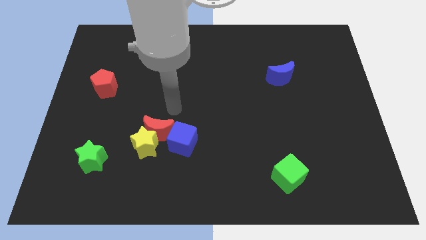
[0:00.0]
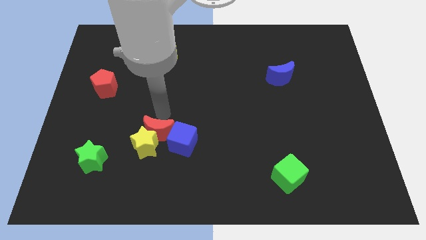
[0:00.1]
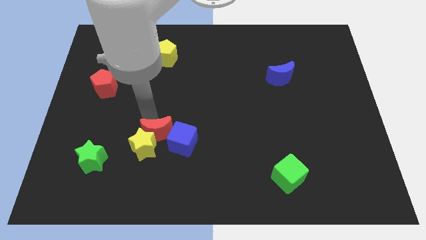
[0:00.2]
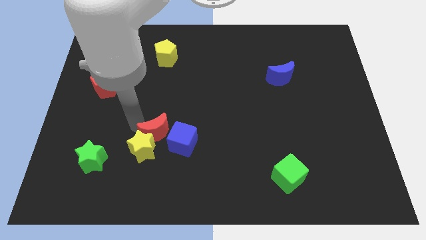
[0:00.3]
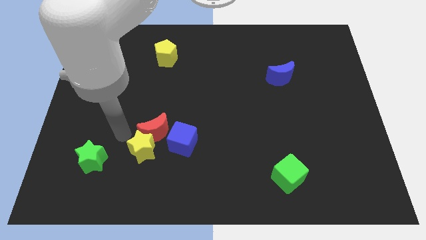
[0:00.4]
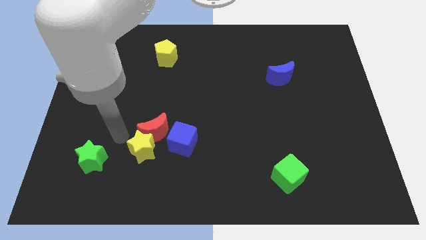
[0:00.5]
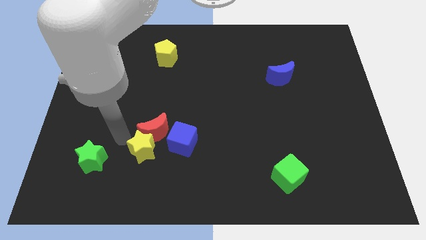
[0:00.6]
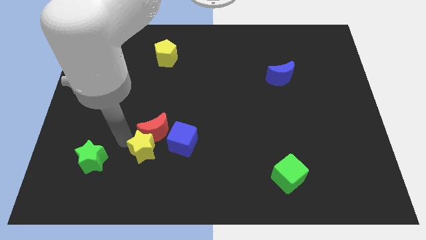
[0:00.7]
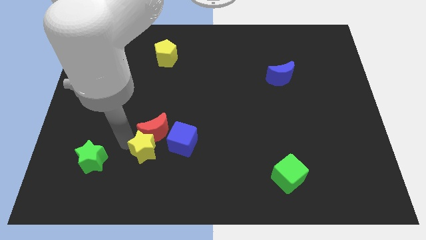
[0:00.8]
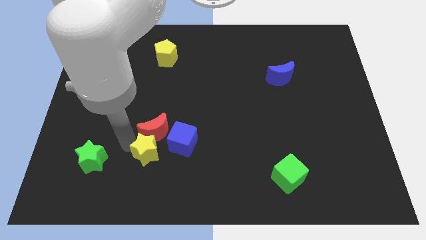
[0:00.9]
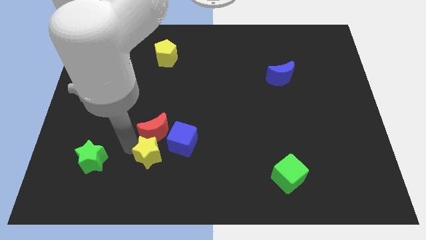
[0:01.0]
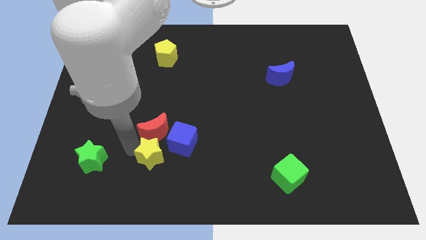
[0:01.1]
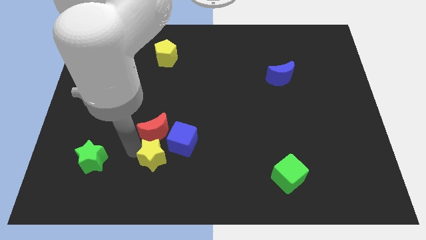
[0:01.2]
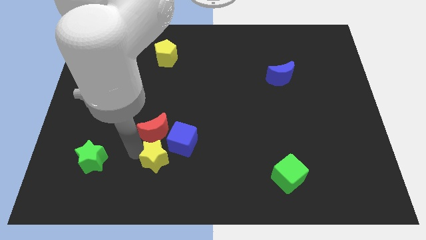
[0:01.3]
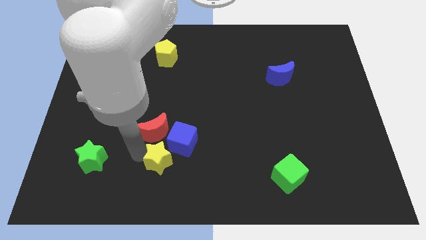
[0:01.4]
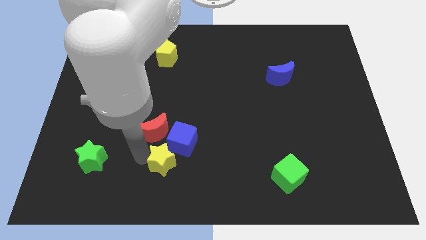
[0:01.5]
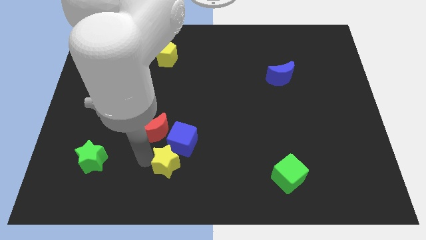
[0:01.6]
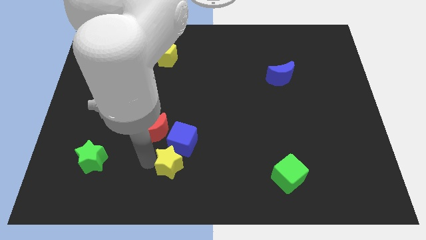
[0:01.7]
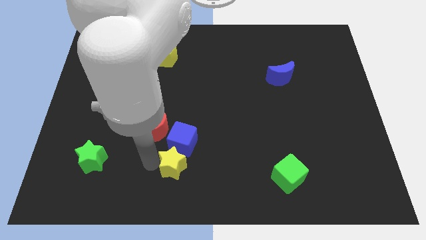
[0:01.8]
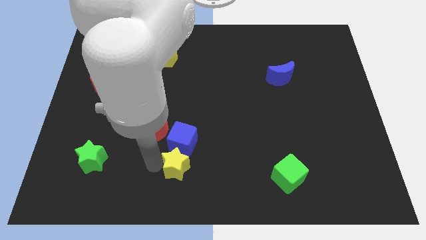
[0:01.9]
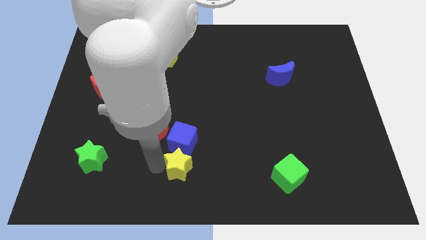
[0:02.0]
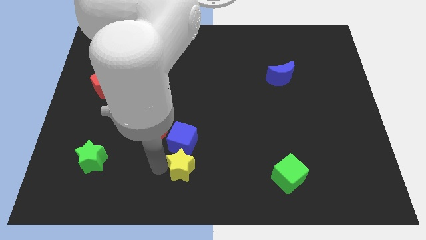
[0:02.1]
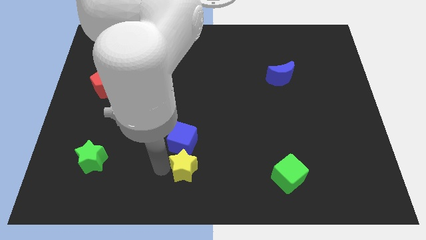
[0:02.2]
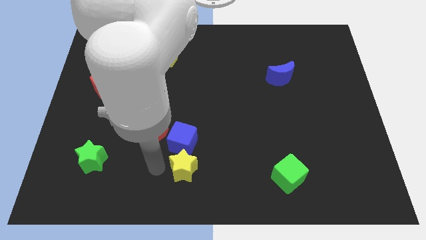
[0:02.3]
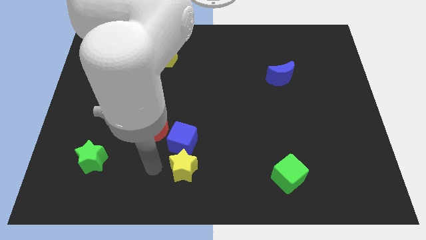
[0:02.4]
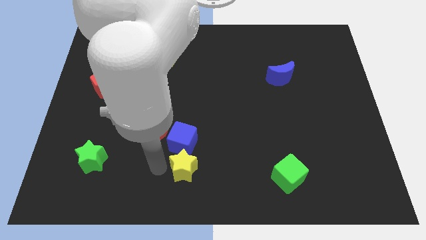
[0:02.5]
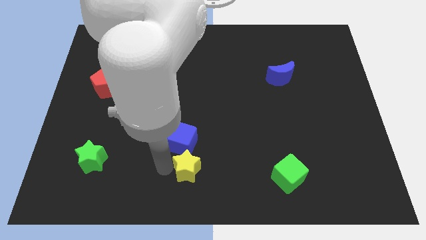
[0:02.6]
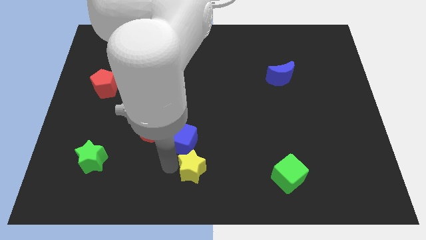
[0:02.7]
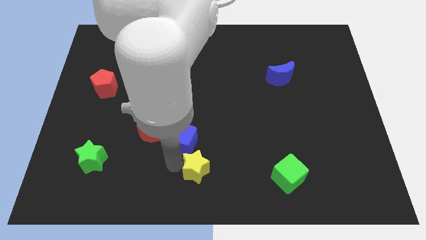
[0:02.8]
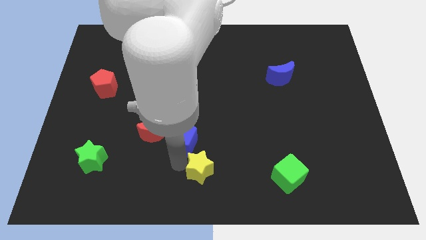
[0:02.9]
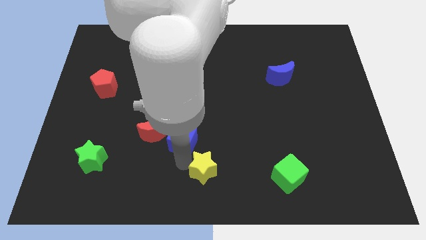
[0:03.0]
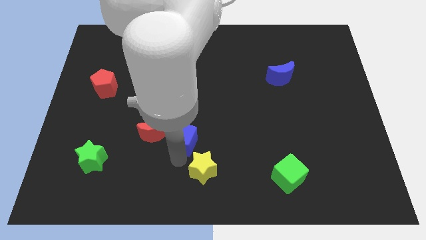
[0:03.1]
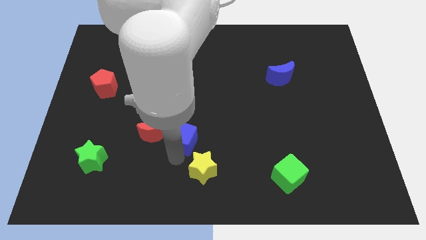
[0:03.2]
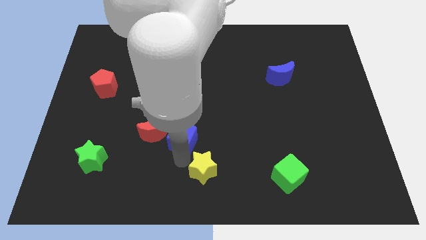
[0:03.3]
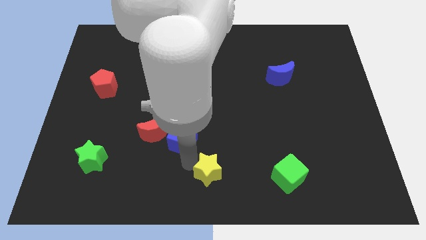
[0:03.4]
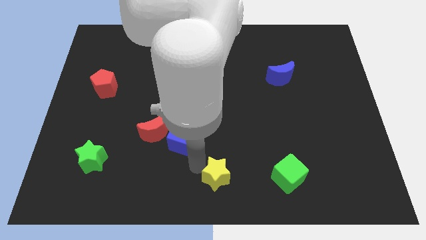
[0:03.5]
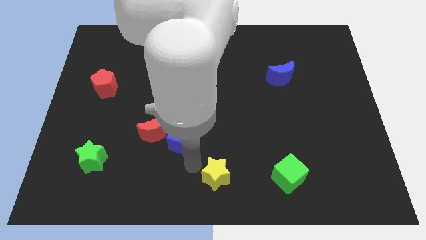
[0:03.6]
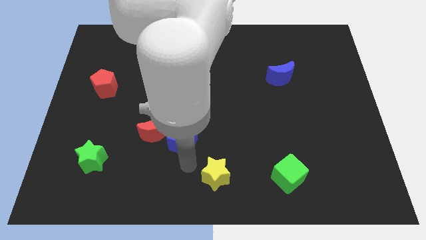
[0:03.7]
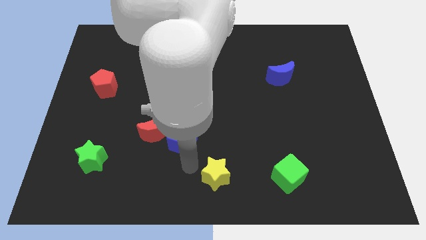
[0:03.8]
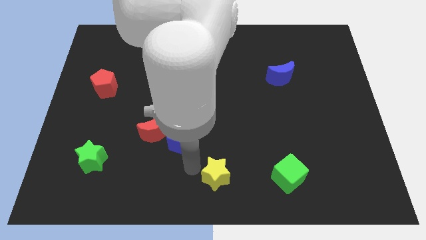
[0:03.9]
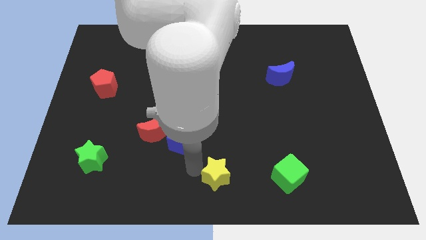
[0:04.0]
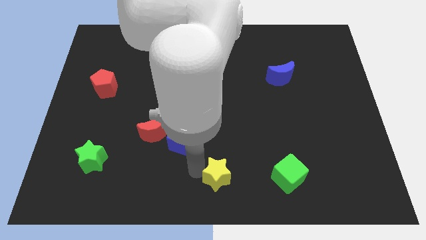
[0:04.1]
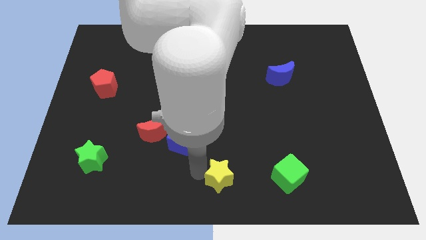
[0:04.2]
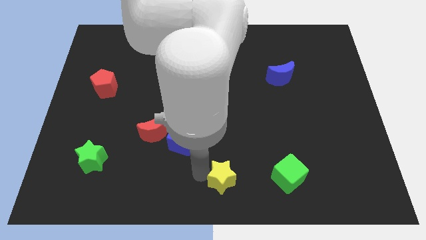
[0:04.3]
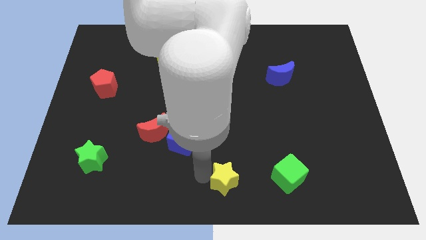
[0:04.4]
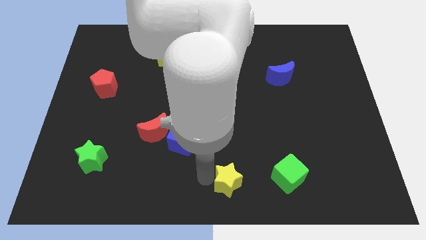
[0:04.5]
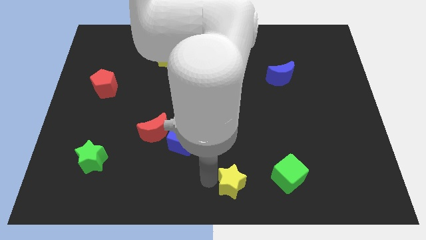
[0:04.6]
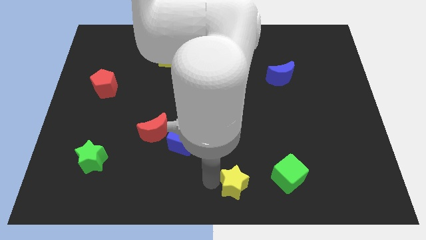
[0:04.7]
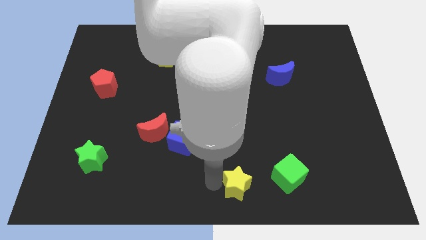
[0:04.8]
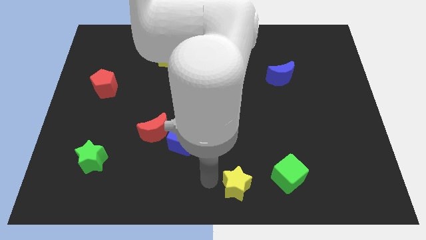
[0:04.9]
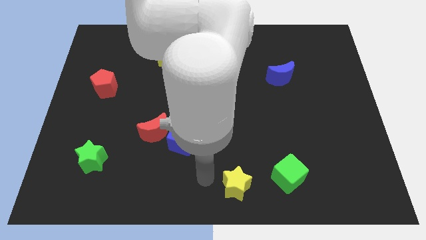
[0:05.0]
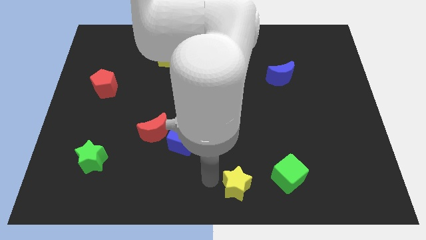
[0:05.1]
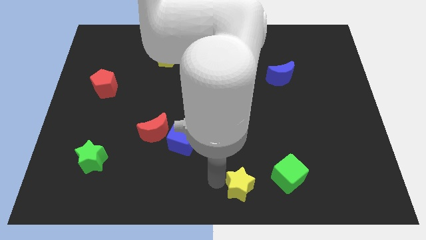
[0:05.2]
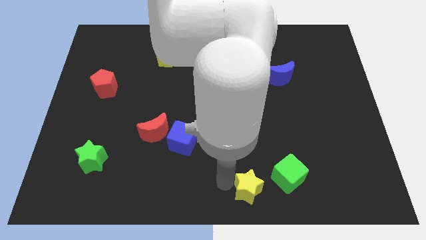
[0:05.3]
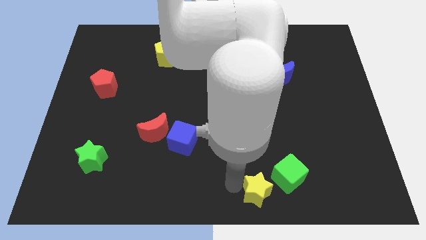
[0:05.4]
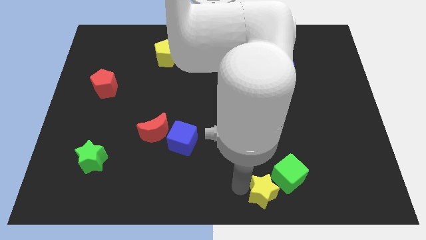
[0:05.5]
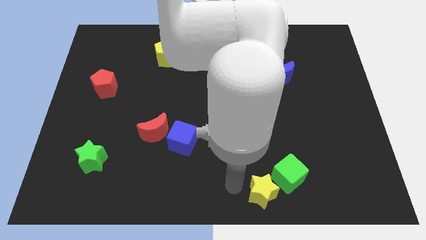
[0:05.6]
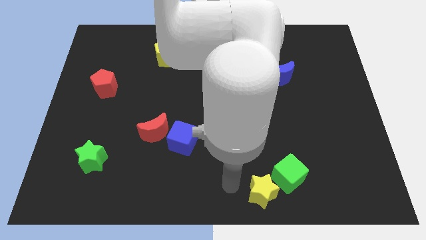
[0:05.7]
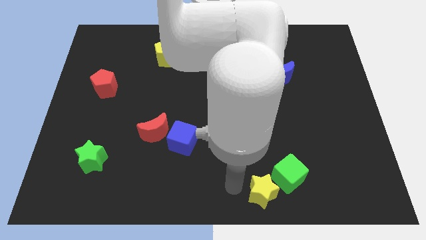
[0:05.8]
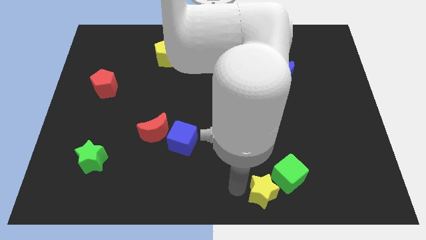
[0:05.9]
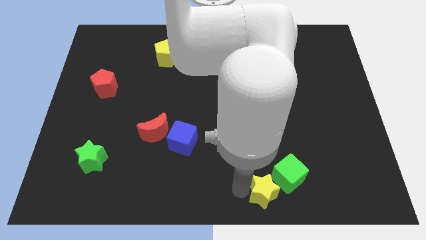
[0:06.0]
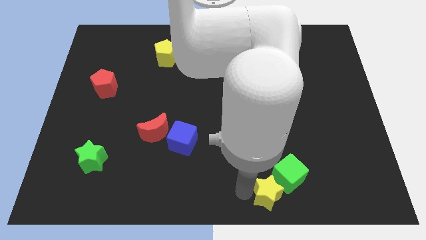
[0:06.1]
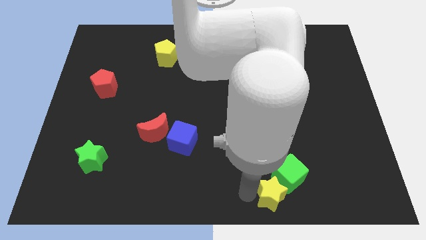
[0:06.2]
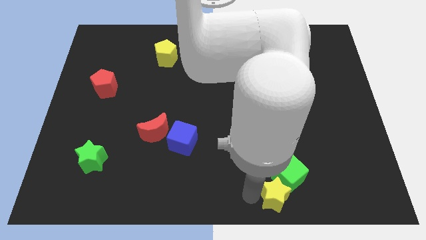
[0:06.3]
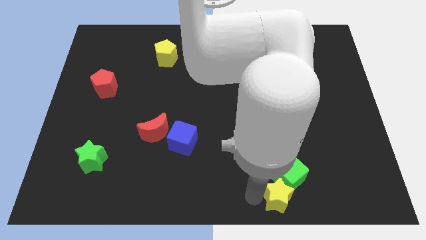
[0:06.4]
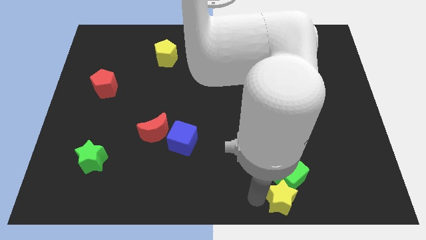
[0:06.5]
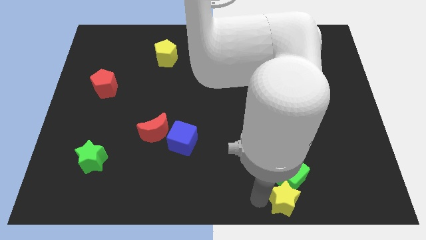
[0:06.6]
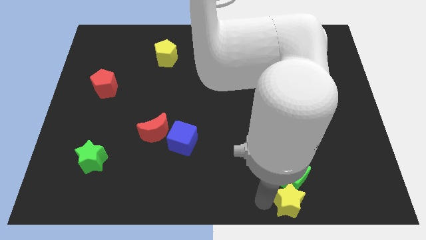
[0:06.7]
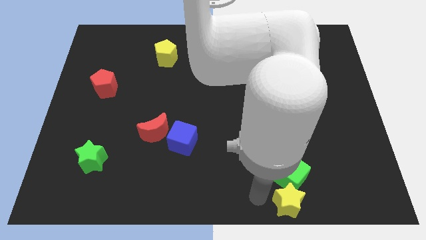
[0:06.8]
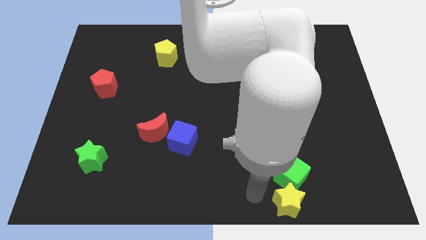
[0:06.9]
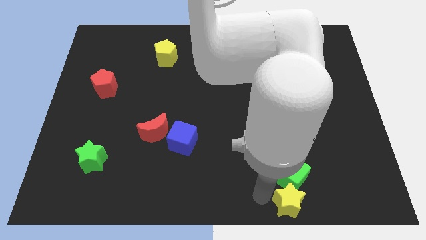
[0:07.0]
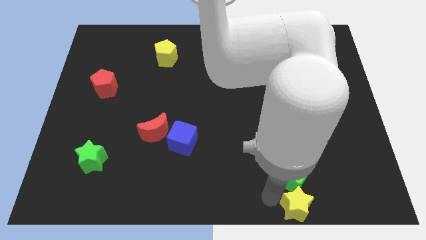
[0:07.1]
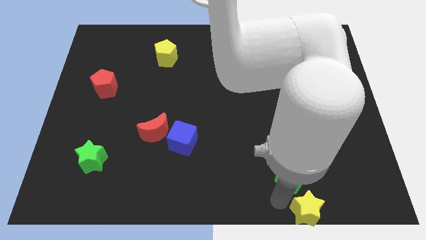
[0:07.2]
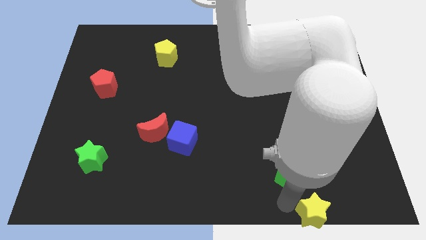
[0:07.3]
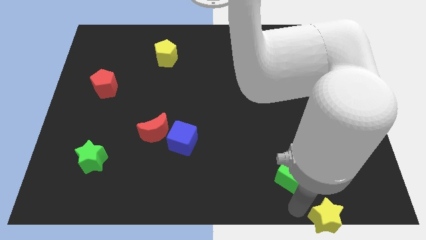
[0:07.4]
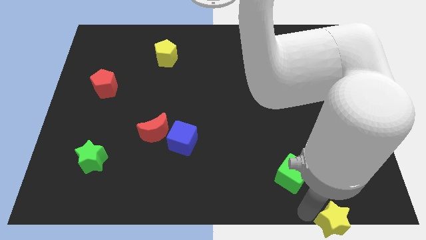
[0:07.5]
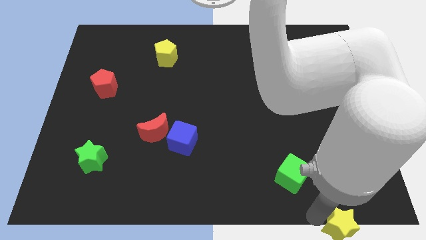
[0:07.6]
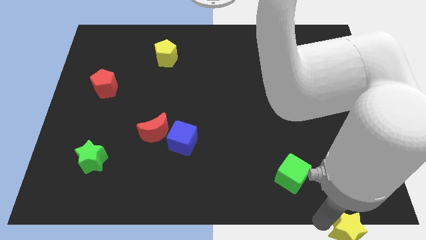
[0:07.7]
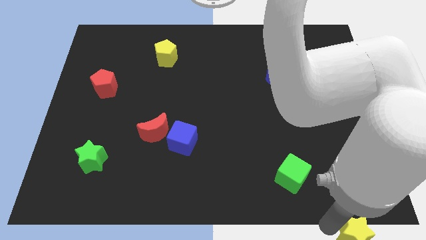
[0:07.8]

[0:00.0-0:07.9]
slide the yellow star to the bottom right corner
